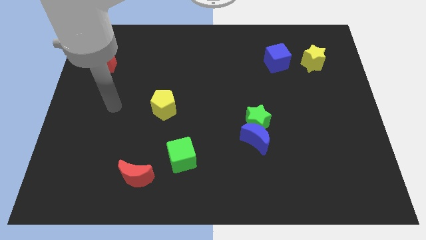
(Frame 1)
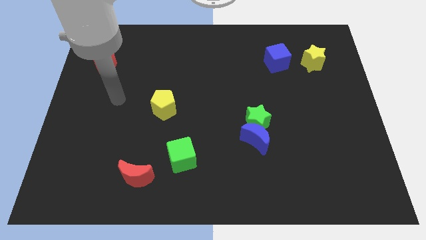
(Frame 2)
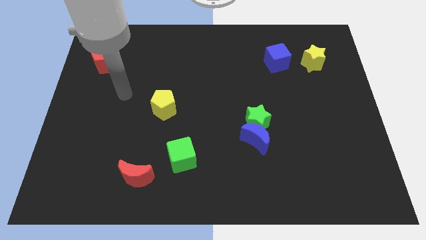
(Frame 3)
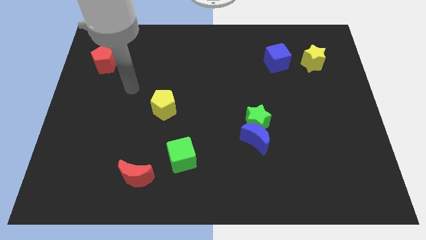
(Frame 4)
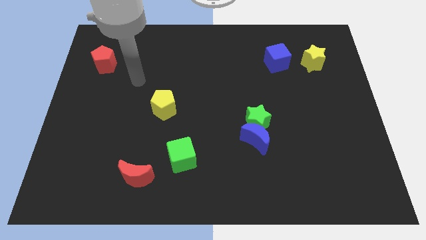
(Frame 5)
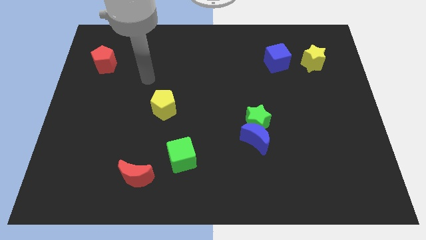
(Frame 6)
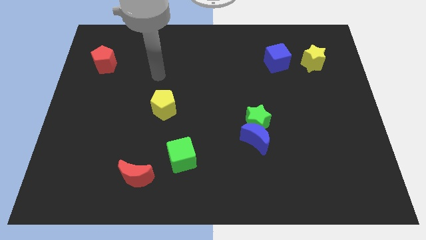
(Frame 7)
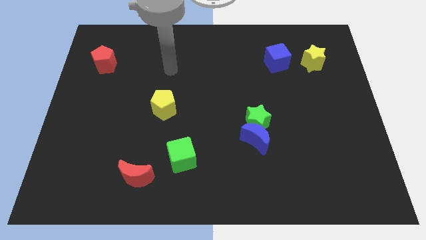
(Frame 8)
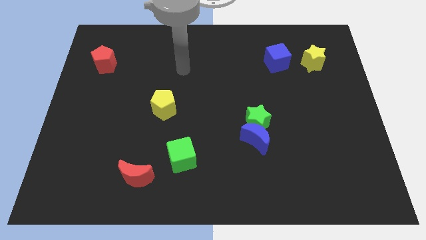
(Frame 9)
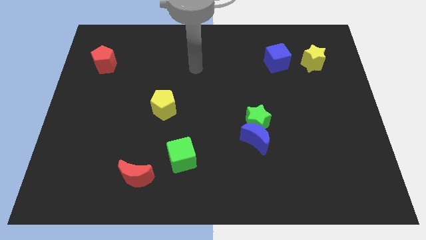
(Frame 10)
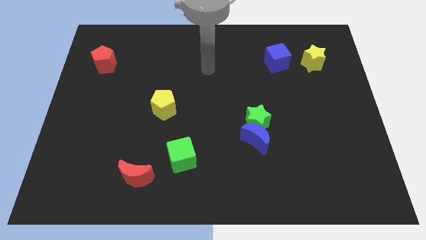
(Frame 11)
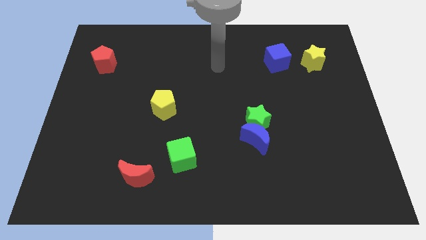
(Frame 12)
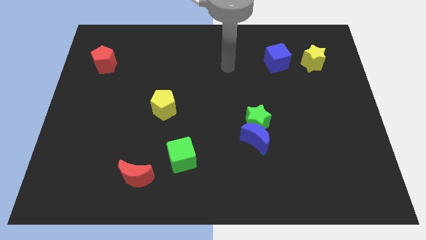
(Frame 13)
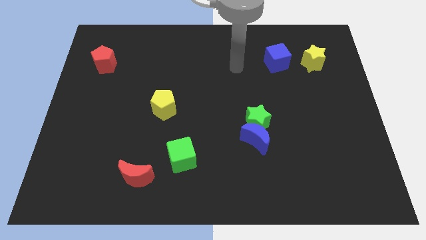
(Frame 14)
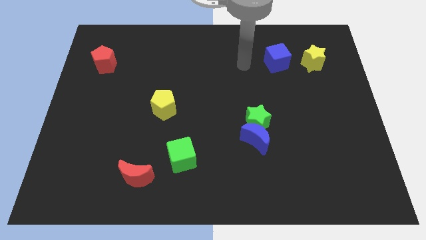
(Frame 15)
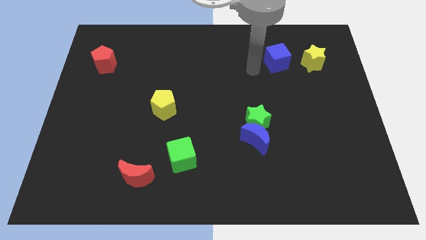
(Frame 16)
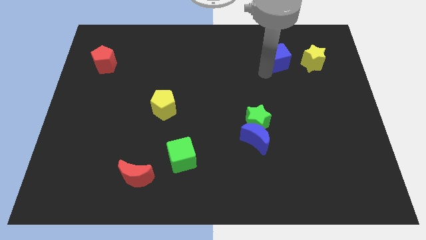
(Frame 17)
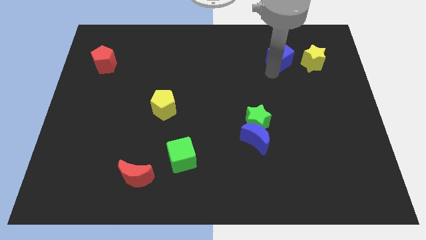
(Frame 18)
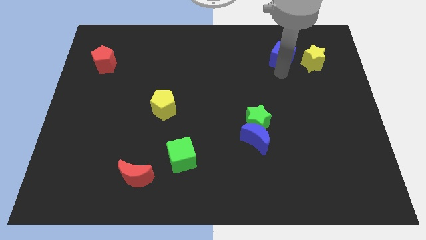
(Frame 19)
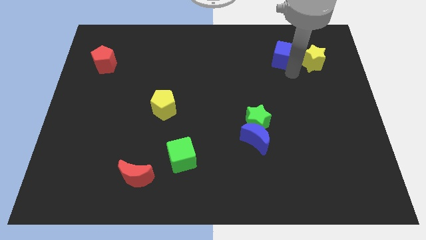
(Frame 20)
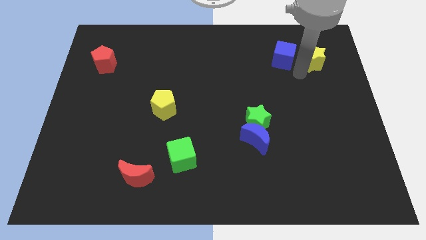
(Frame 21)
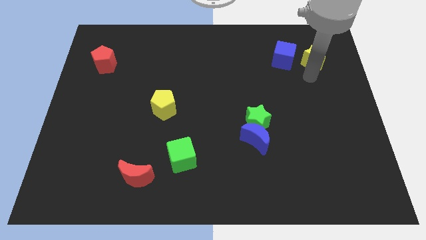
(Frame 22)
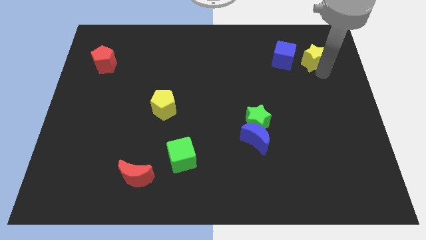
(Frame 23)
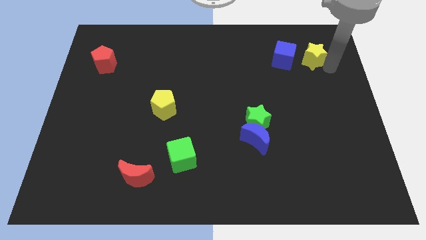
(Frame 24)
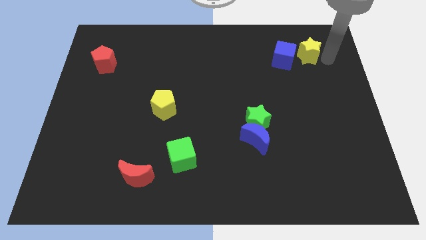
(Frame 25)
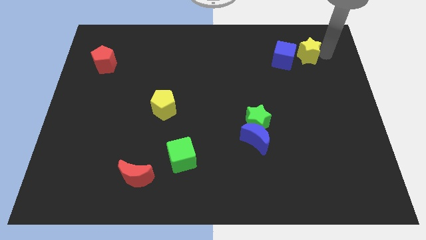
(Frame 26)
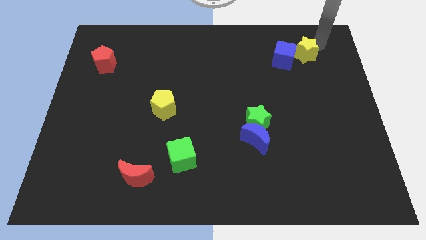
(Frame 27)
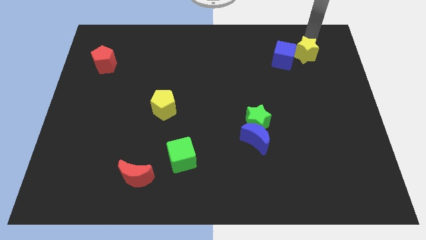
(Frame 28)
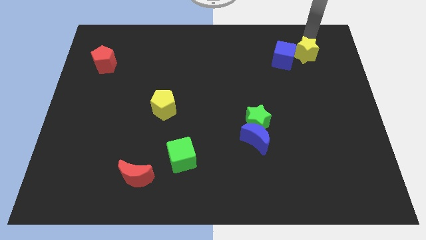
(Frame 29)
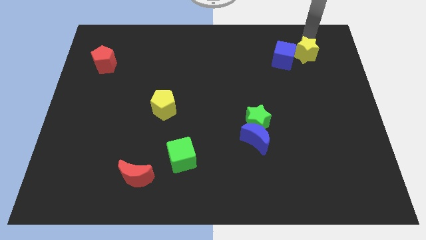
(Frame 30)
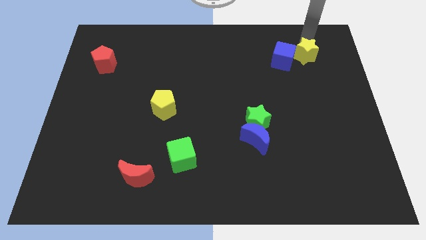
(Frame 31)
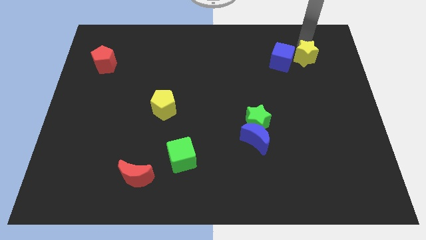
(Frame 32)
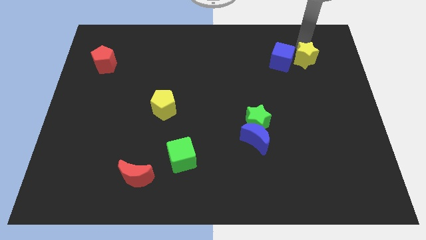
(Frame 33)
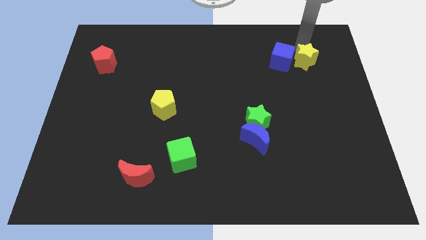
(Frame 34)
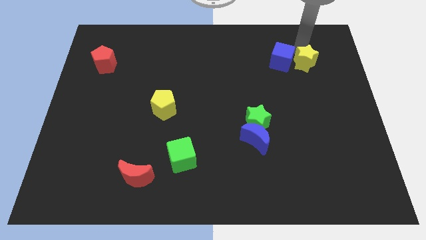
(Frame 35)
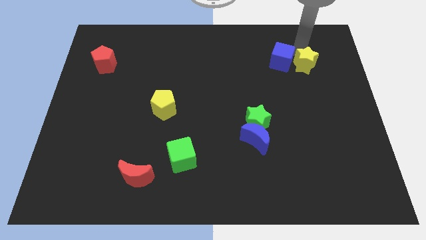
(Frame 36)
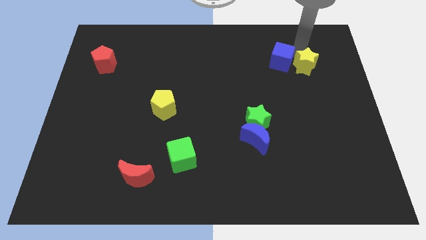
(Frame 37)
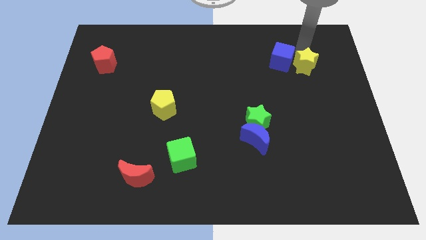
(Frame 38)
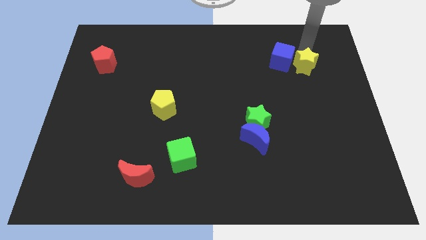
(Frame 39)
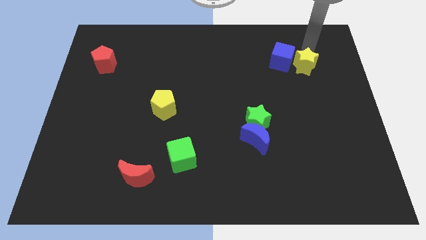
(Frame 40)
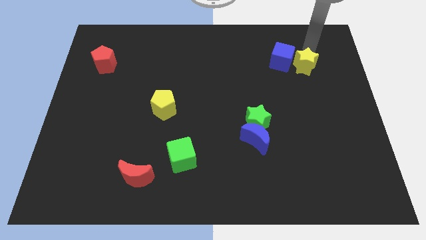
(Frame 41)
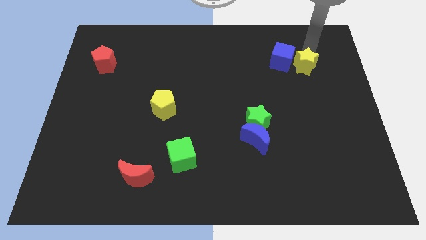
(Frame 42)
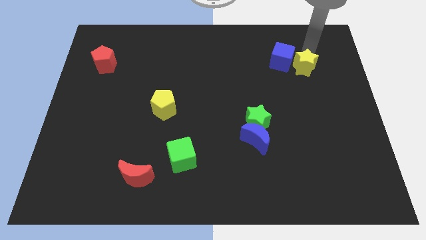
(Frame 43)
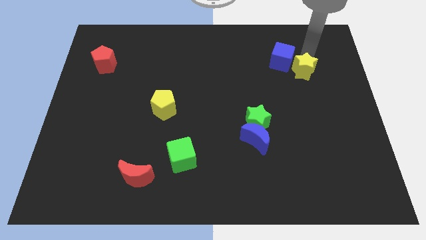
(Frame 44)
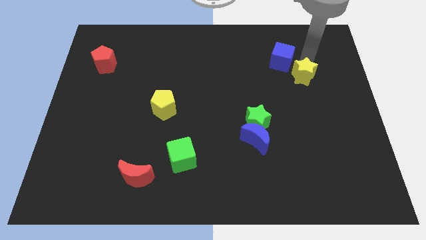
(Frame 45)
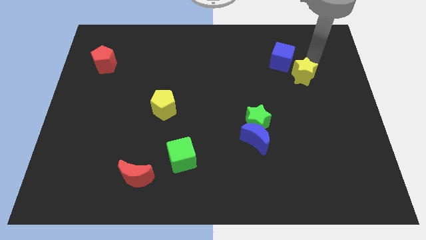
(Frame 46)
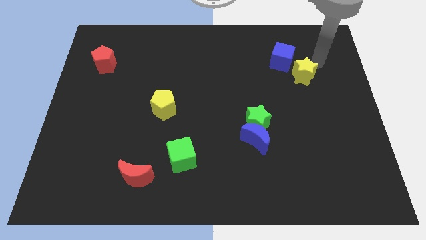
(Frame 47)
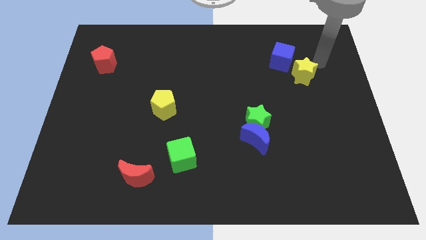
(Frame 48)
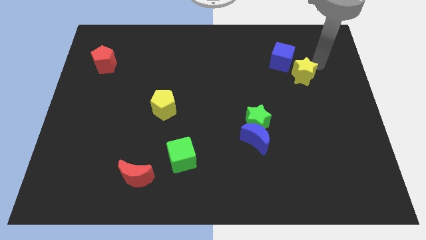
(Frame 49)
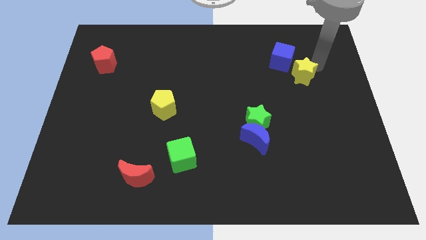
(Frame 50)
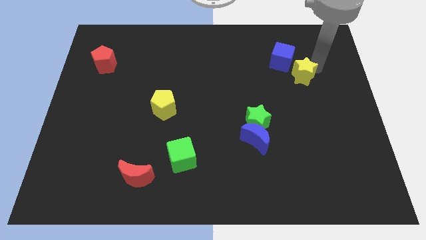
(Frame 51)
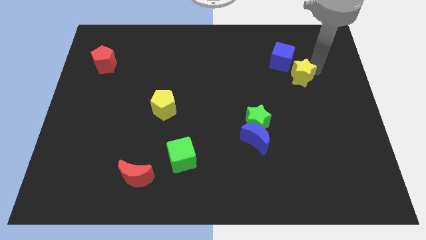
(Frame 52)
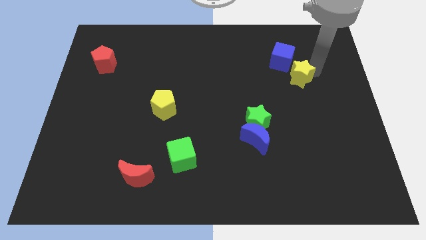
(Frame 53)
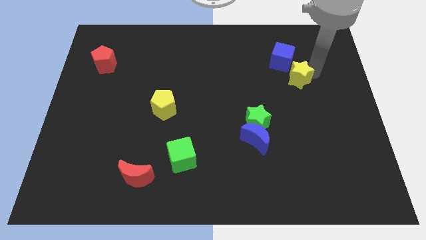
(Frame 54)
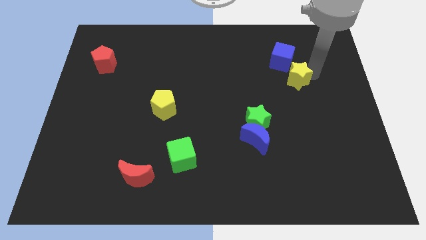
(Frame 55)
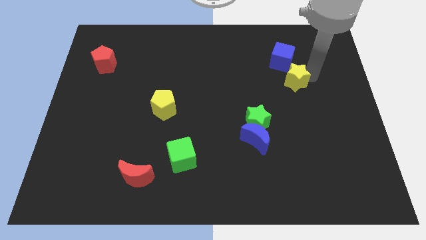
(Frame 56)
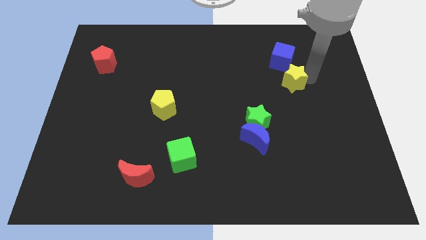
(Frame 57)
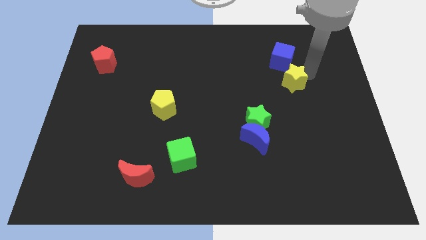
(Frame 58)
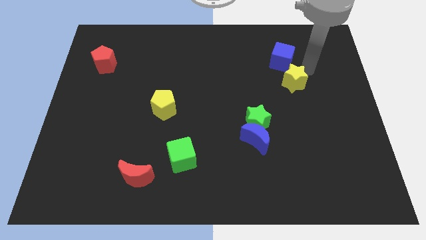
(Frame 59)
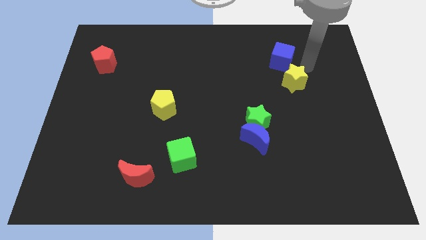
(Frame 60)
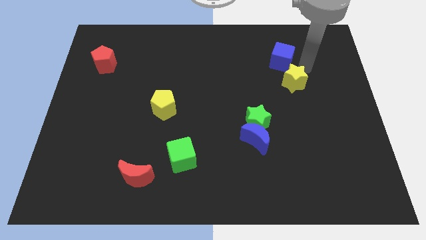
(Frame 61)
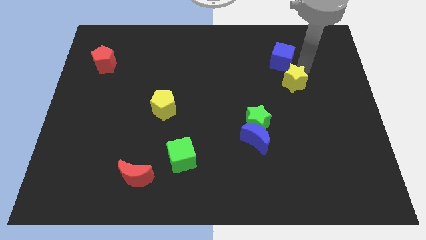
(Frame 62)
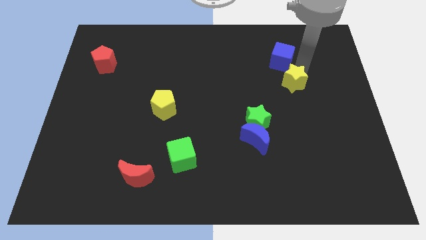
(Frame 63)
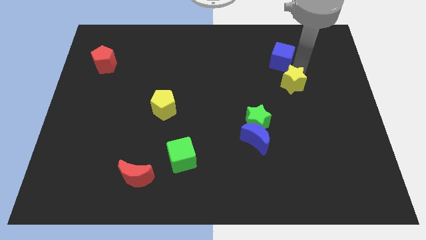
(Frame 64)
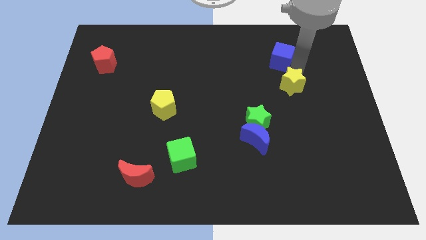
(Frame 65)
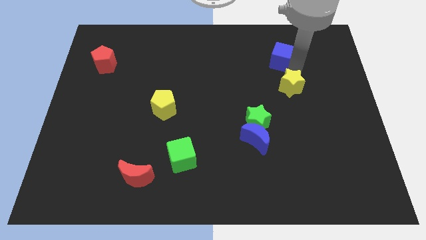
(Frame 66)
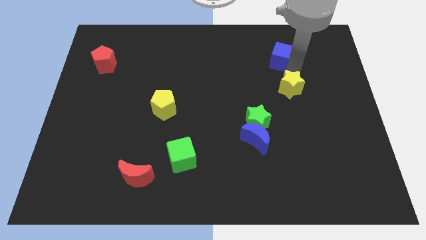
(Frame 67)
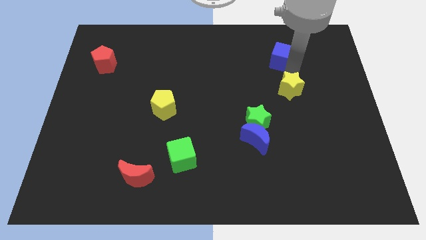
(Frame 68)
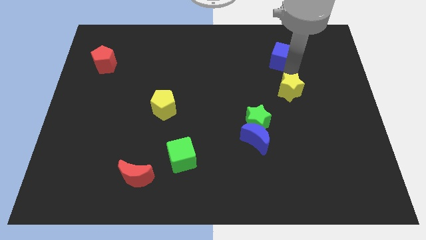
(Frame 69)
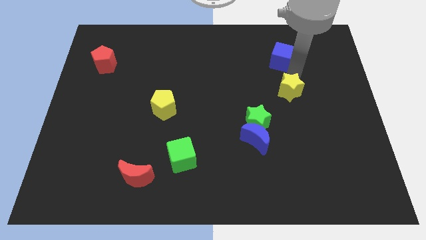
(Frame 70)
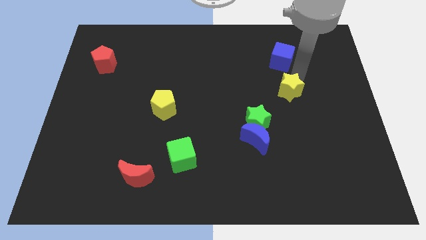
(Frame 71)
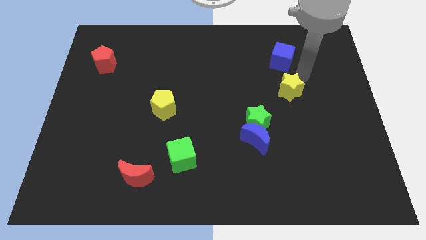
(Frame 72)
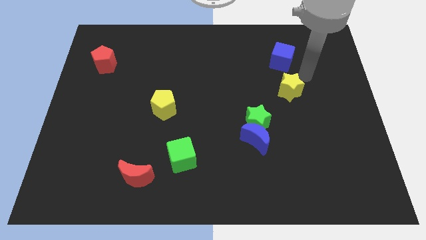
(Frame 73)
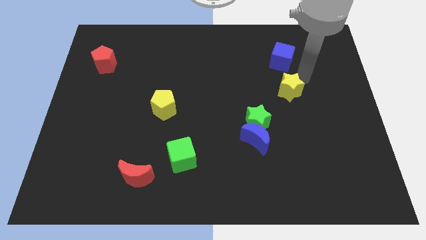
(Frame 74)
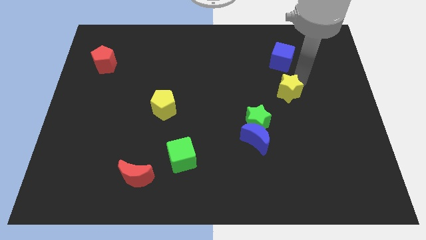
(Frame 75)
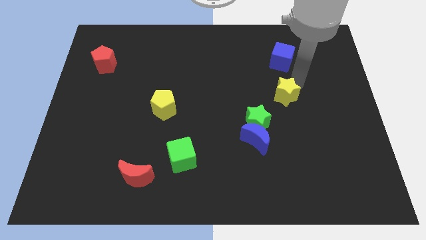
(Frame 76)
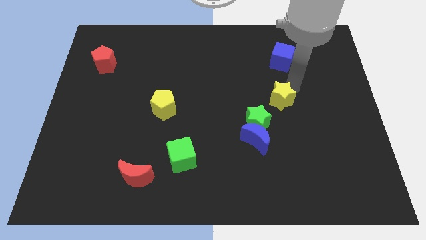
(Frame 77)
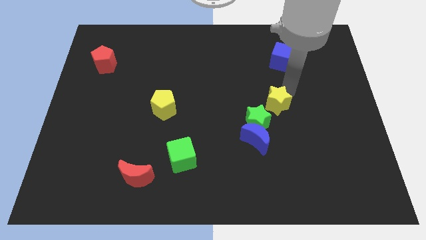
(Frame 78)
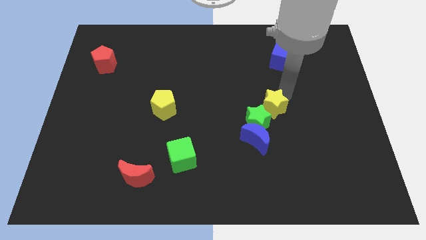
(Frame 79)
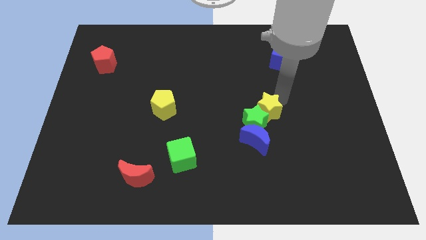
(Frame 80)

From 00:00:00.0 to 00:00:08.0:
move the yellow star to the green star
